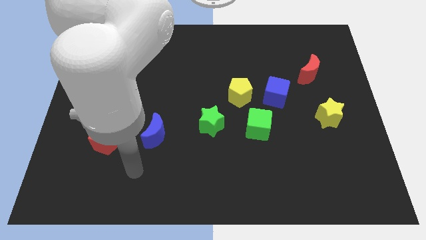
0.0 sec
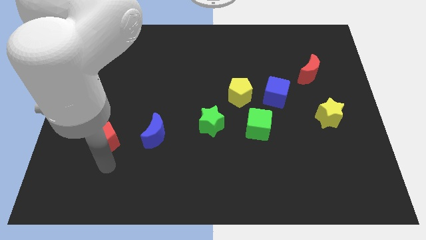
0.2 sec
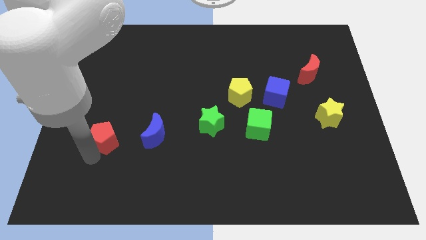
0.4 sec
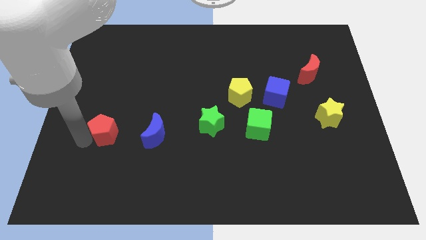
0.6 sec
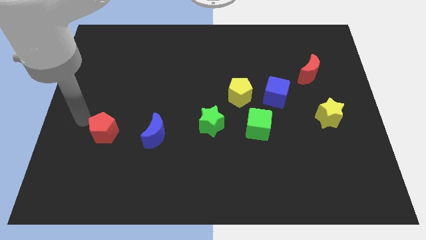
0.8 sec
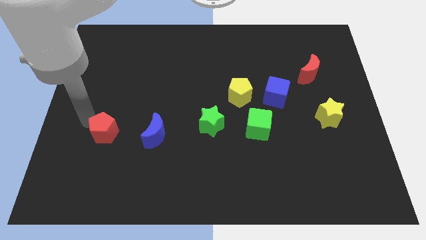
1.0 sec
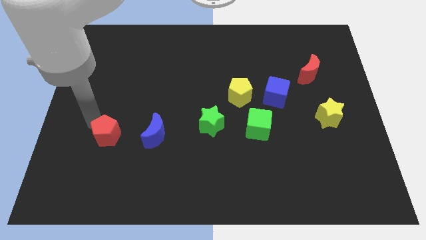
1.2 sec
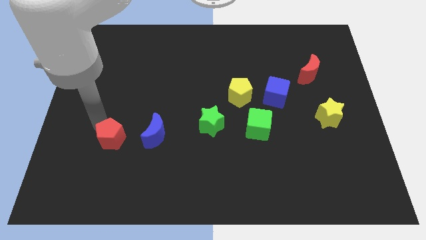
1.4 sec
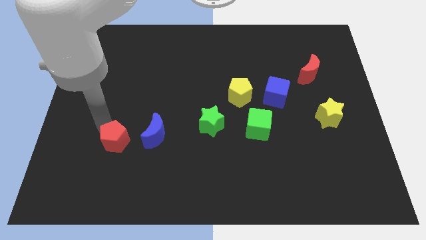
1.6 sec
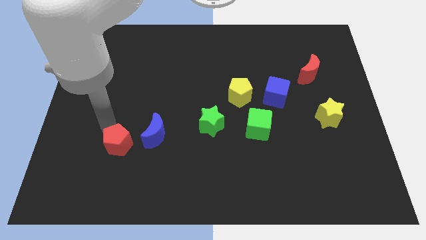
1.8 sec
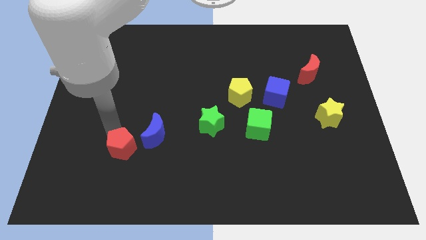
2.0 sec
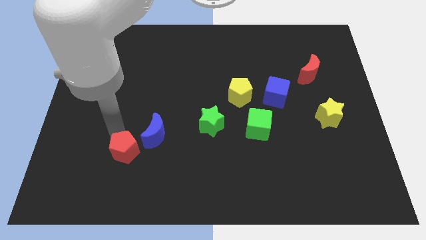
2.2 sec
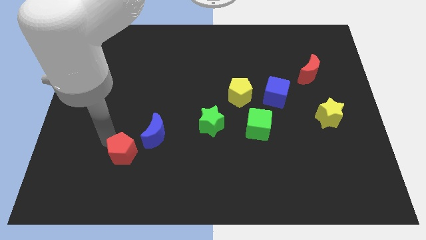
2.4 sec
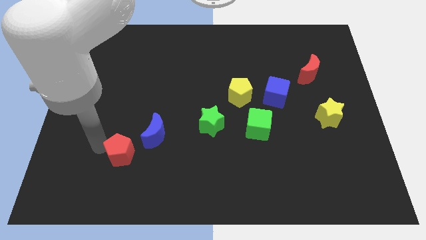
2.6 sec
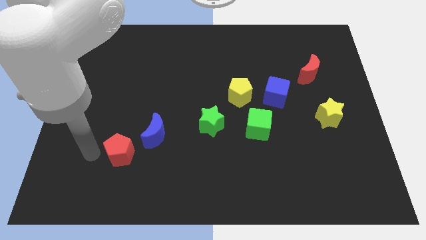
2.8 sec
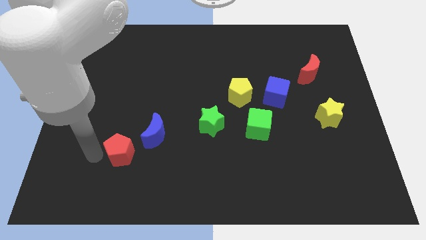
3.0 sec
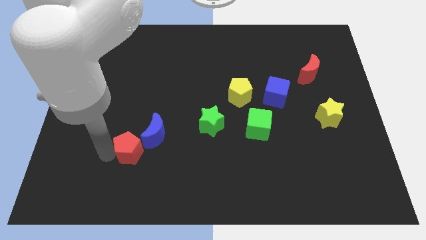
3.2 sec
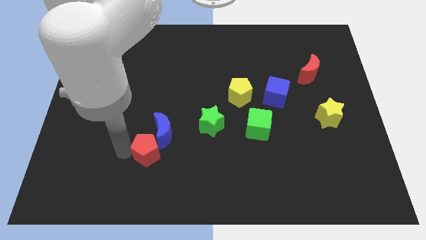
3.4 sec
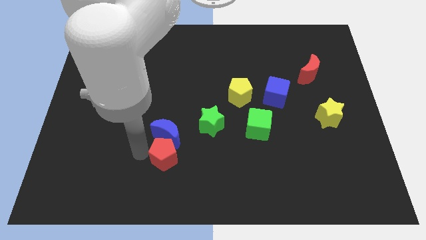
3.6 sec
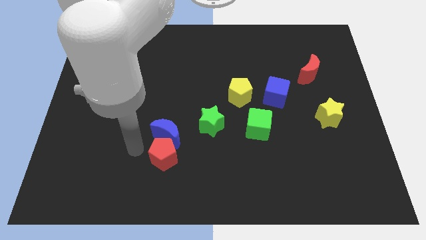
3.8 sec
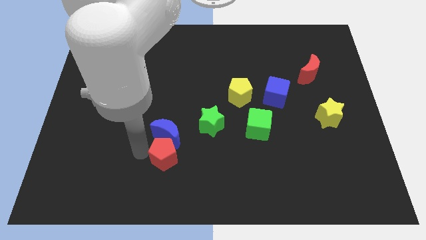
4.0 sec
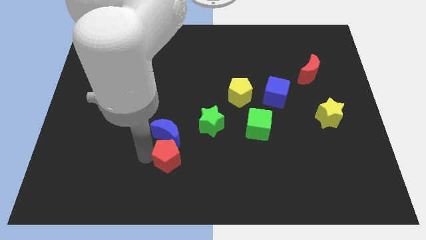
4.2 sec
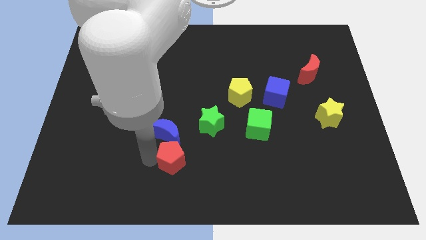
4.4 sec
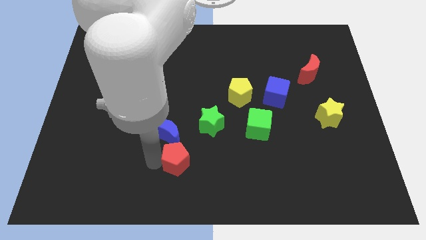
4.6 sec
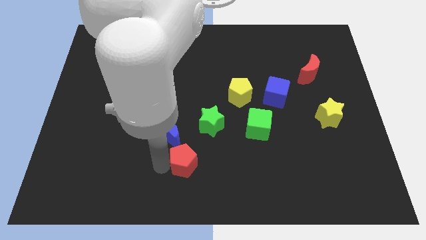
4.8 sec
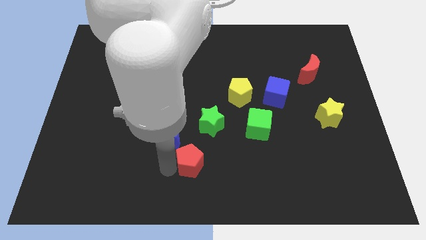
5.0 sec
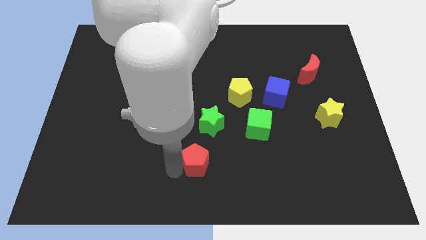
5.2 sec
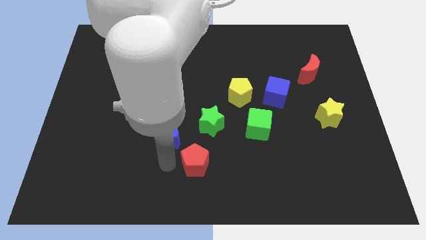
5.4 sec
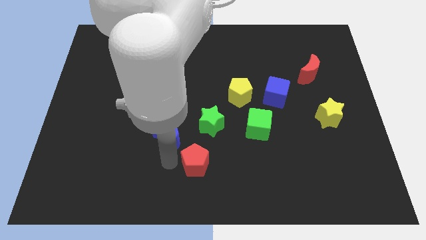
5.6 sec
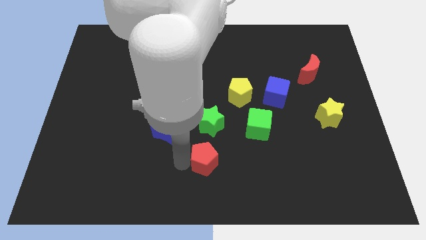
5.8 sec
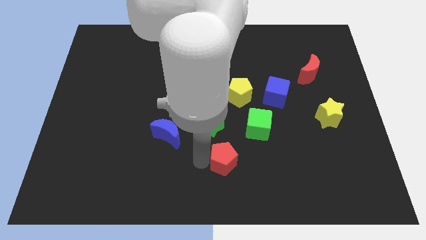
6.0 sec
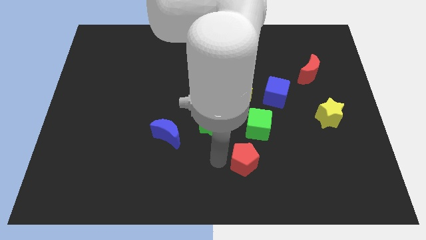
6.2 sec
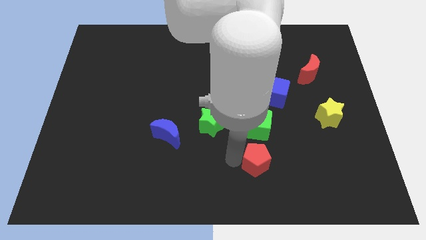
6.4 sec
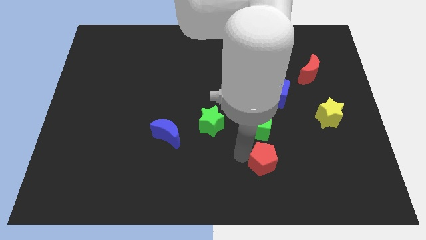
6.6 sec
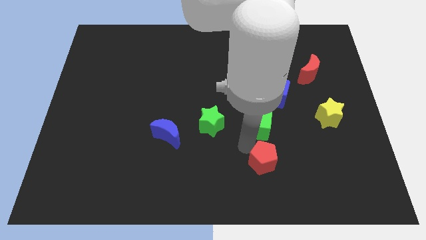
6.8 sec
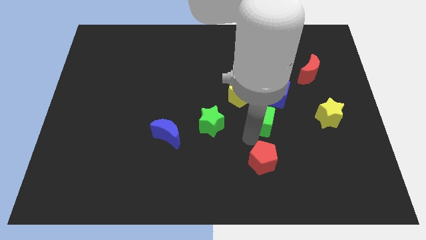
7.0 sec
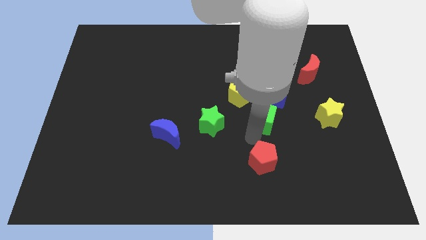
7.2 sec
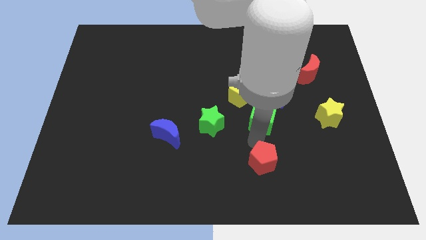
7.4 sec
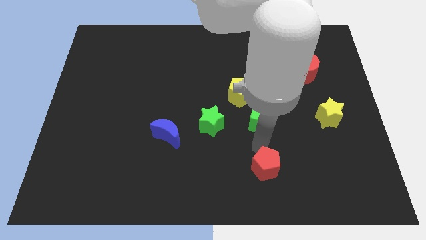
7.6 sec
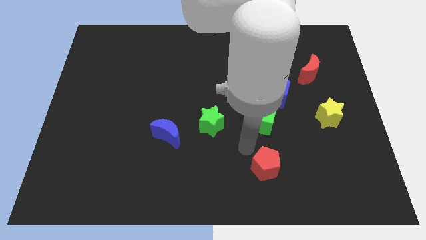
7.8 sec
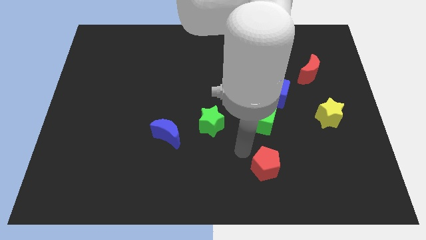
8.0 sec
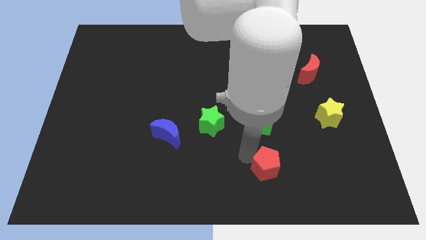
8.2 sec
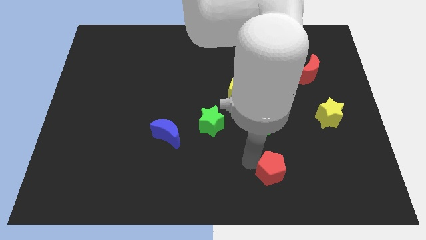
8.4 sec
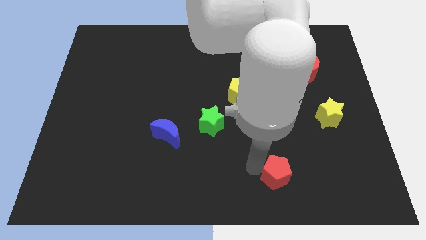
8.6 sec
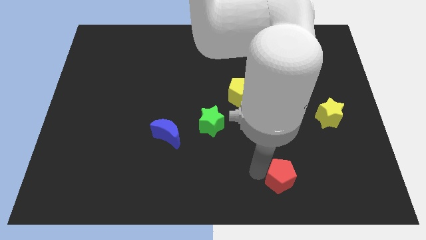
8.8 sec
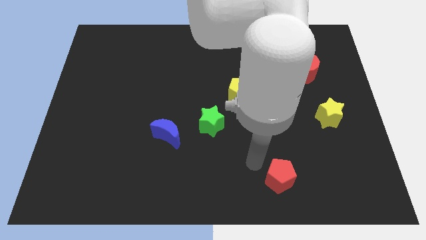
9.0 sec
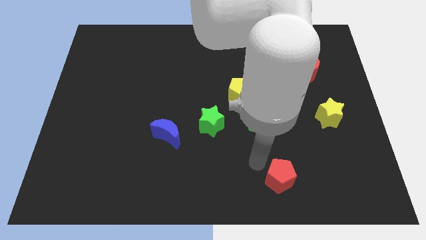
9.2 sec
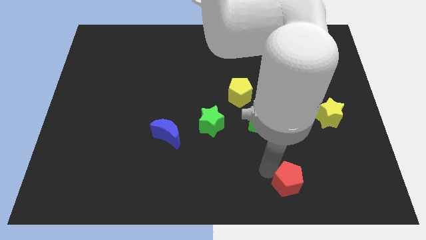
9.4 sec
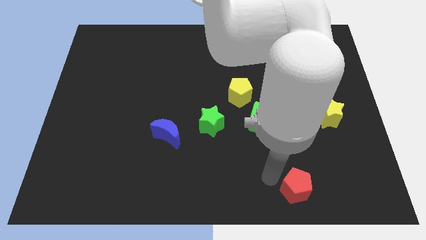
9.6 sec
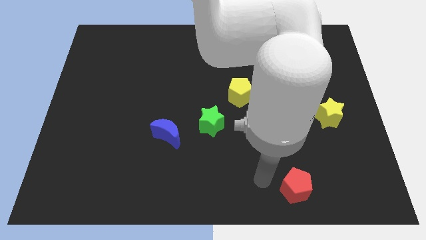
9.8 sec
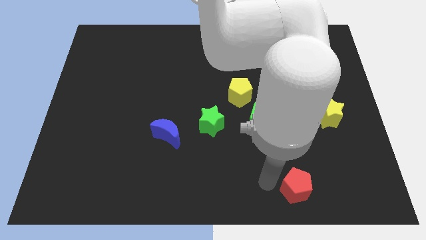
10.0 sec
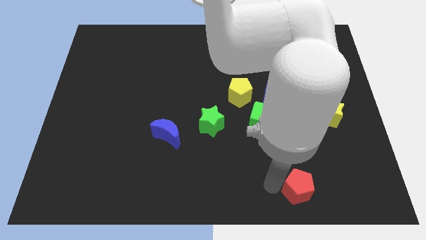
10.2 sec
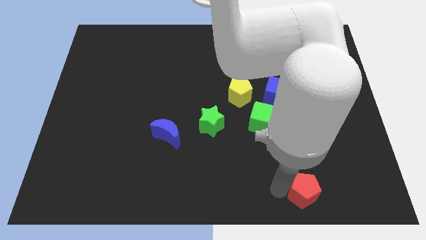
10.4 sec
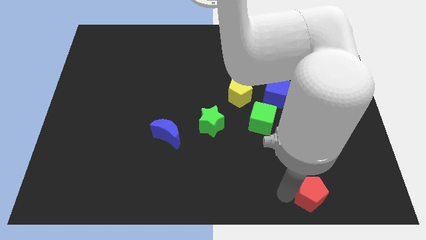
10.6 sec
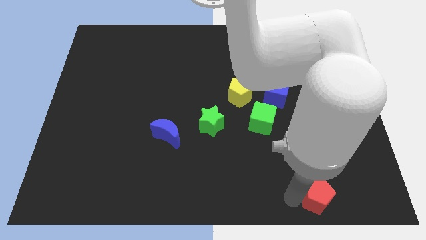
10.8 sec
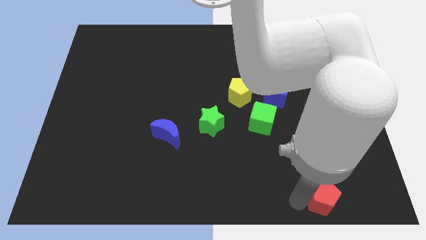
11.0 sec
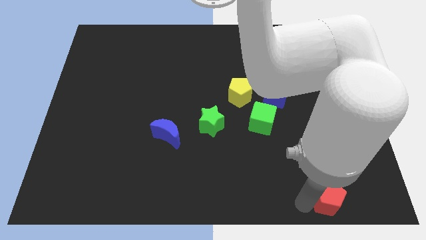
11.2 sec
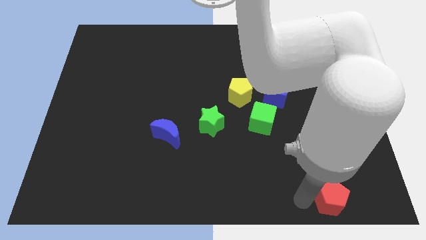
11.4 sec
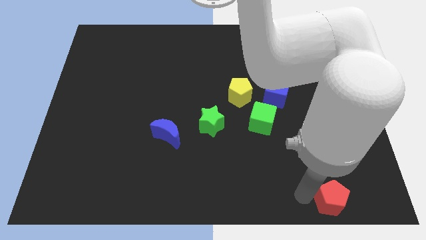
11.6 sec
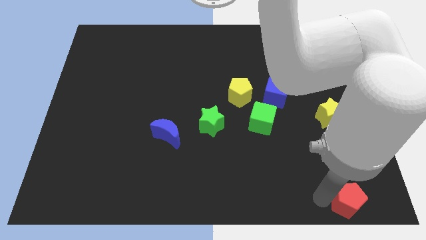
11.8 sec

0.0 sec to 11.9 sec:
push the red pentagon to the bottom right of the board
